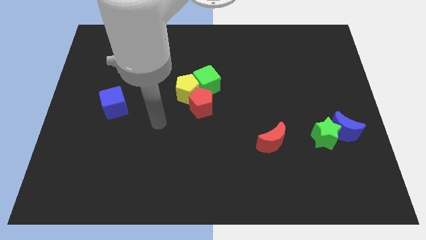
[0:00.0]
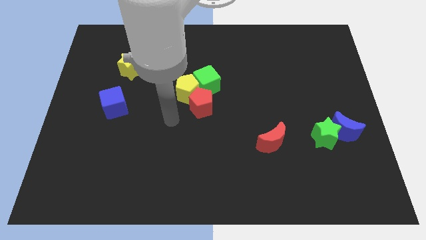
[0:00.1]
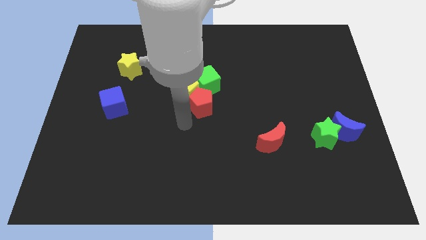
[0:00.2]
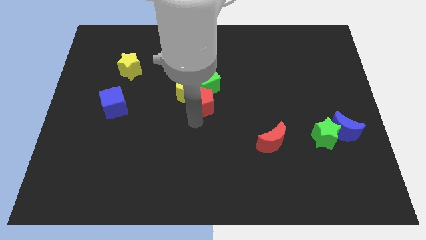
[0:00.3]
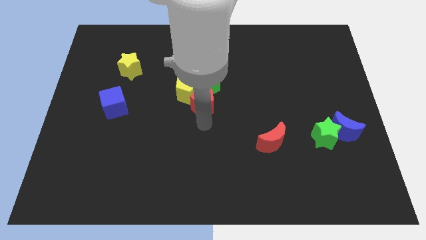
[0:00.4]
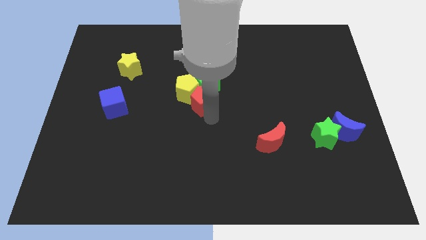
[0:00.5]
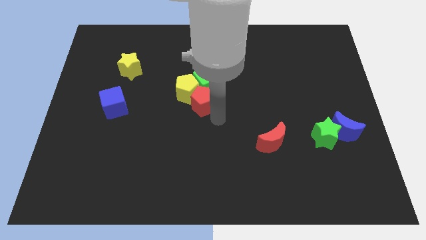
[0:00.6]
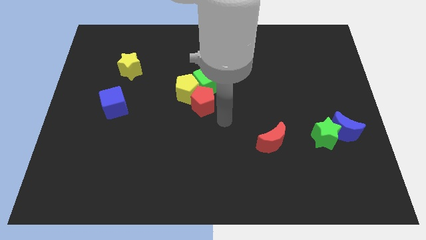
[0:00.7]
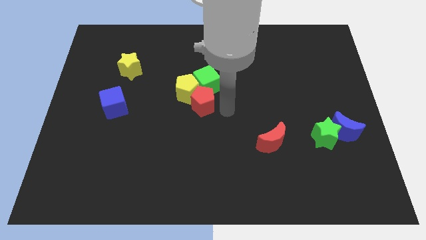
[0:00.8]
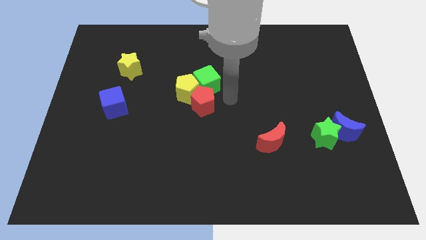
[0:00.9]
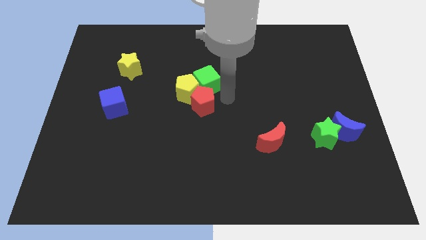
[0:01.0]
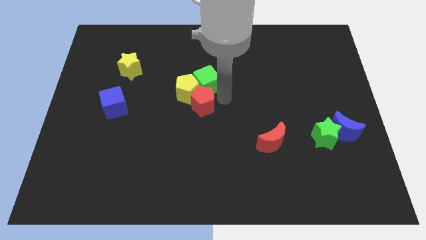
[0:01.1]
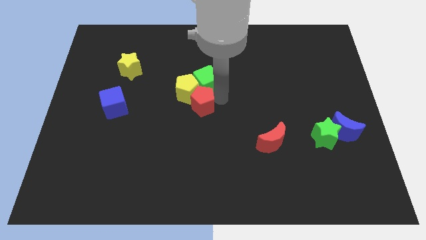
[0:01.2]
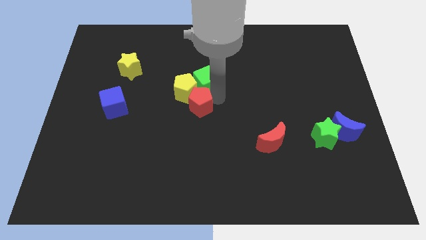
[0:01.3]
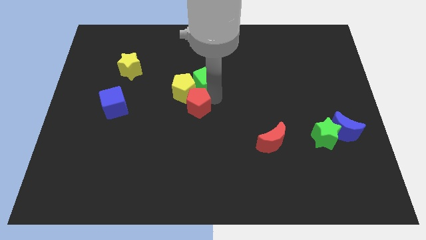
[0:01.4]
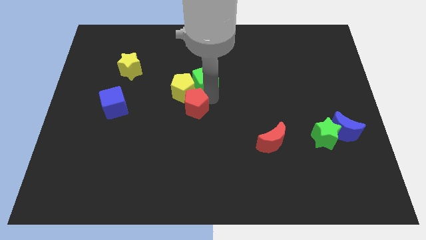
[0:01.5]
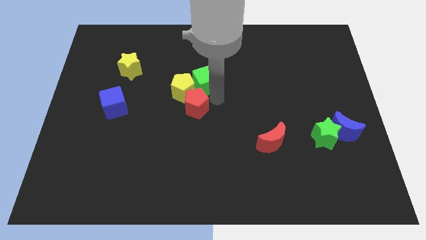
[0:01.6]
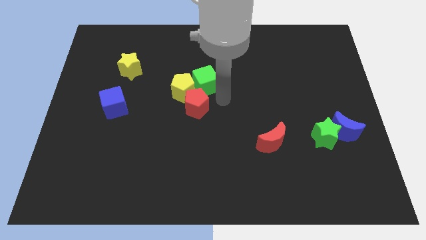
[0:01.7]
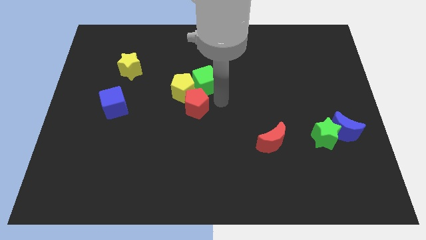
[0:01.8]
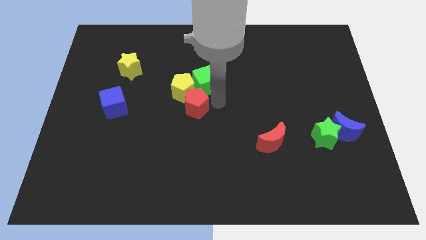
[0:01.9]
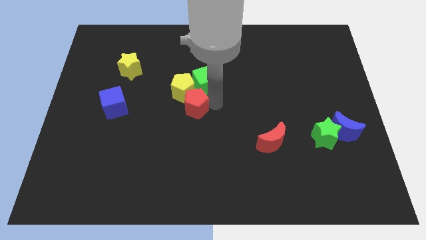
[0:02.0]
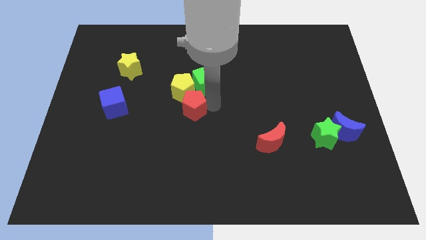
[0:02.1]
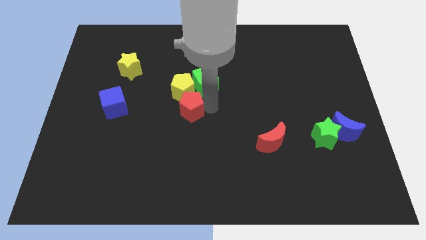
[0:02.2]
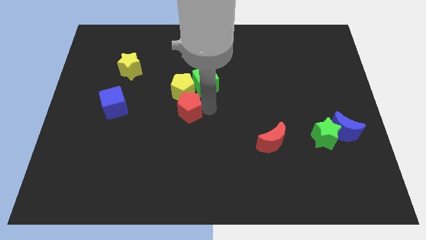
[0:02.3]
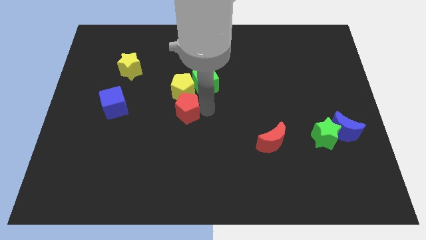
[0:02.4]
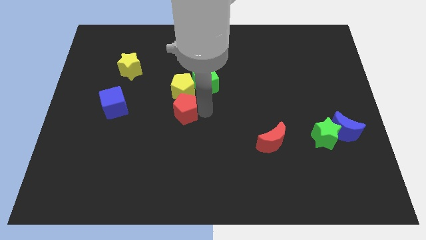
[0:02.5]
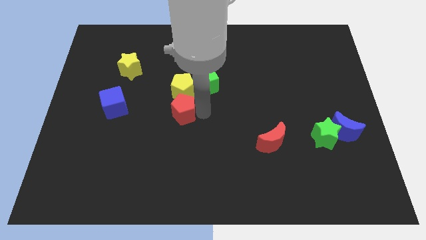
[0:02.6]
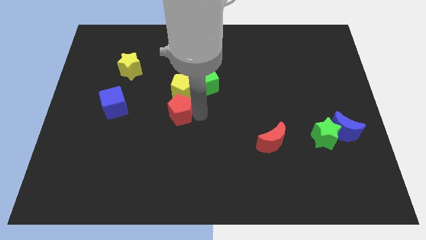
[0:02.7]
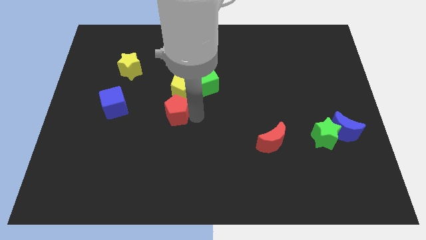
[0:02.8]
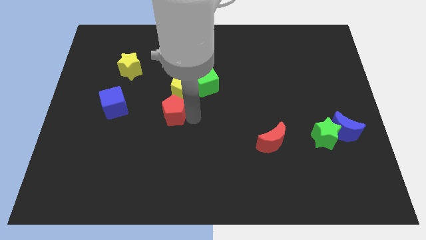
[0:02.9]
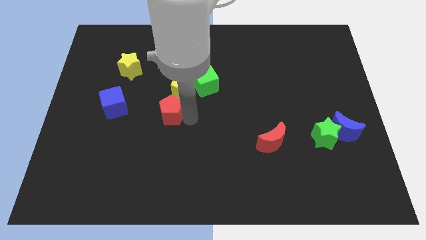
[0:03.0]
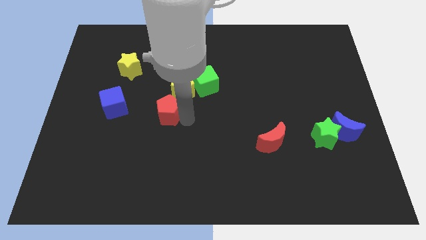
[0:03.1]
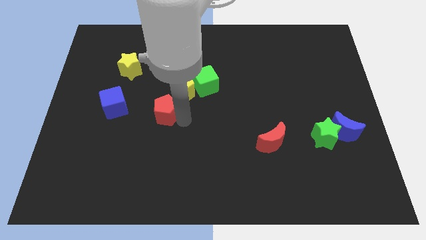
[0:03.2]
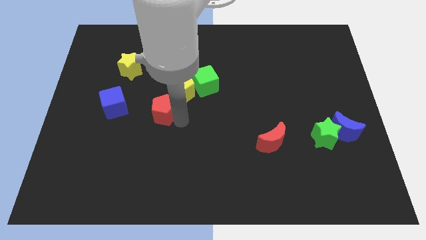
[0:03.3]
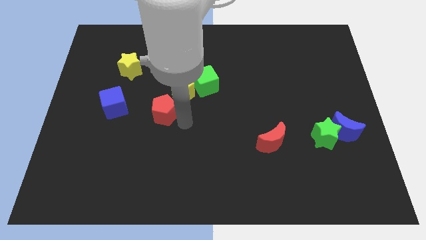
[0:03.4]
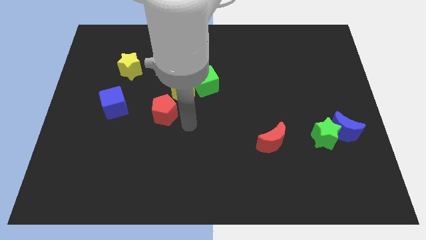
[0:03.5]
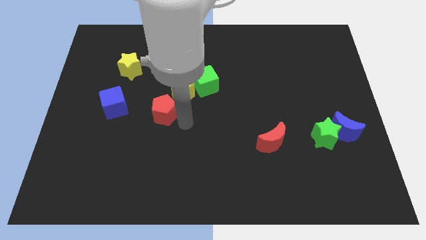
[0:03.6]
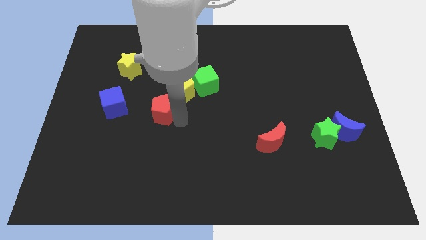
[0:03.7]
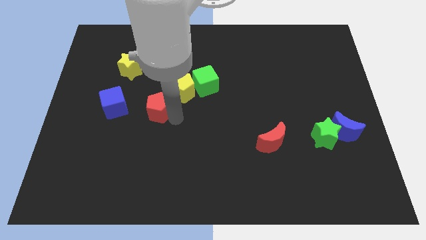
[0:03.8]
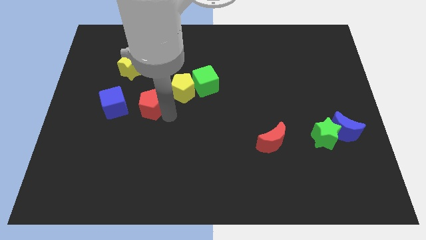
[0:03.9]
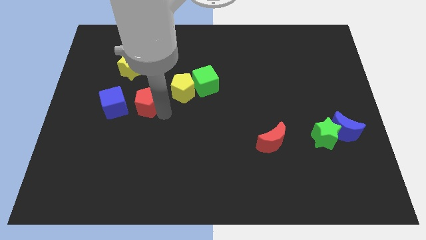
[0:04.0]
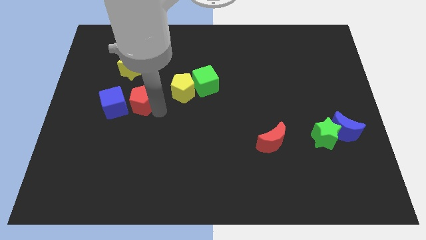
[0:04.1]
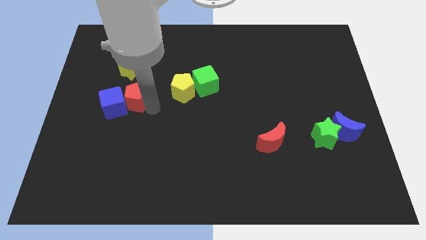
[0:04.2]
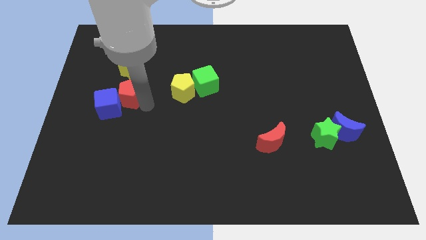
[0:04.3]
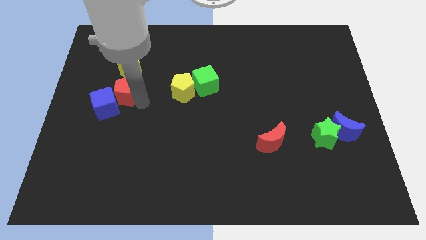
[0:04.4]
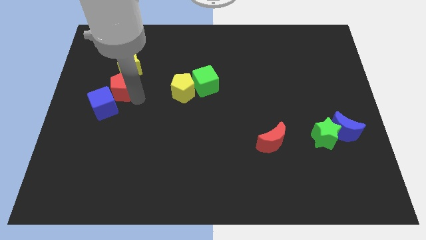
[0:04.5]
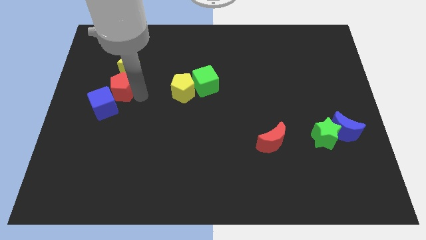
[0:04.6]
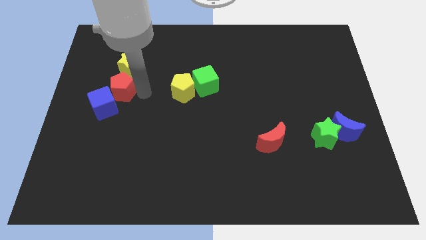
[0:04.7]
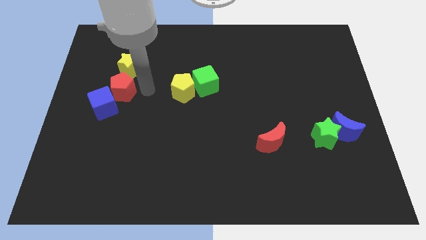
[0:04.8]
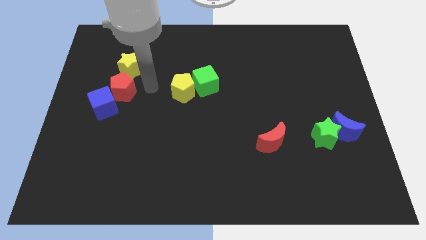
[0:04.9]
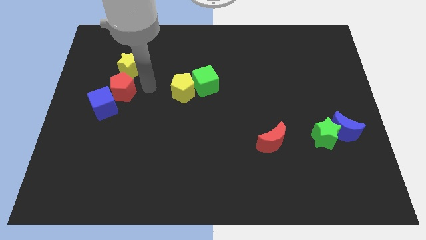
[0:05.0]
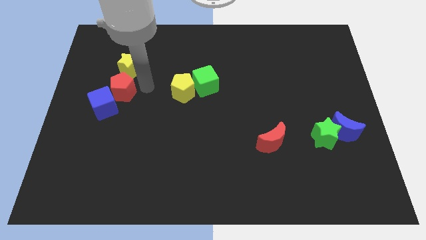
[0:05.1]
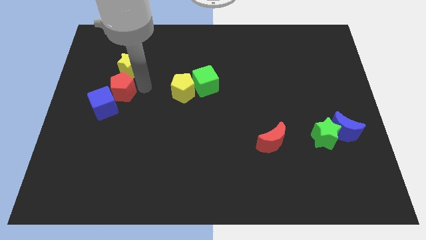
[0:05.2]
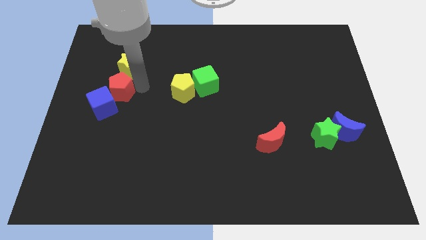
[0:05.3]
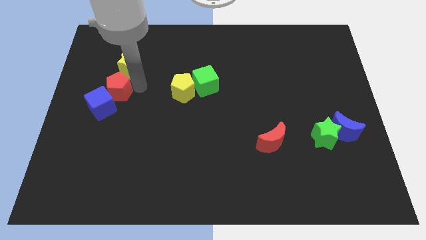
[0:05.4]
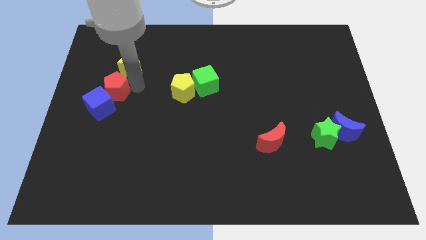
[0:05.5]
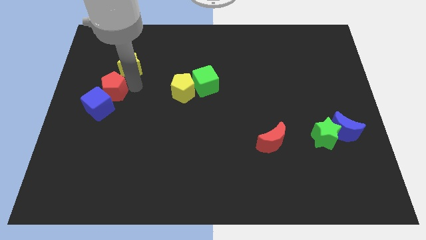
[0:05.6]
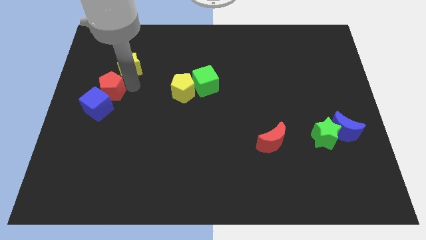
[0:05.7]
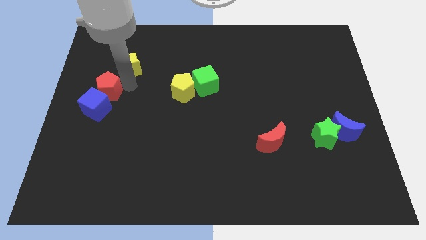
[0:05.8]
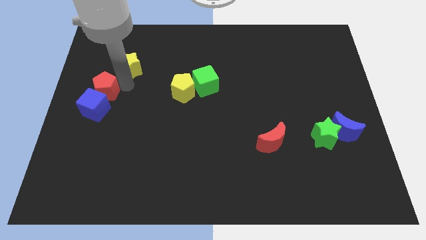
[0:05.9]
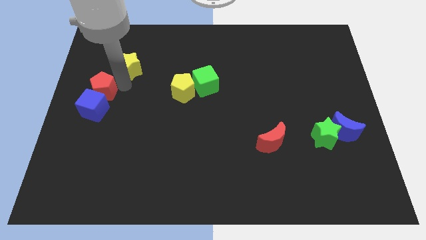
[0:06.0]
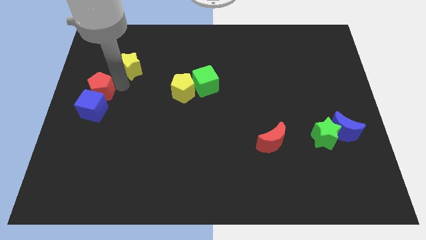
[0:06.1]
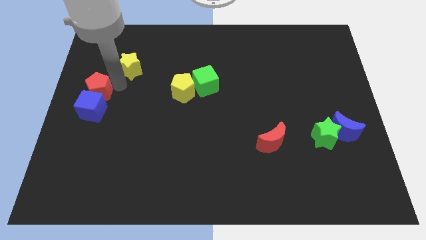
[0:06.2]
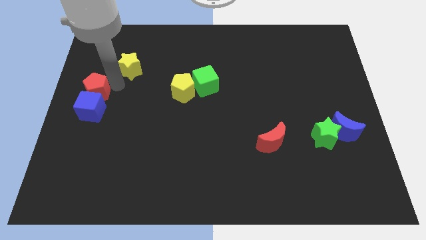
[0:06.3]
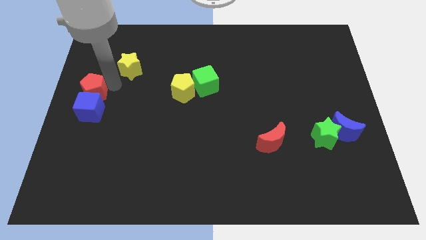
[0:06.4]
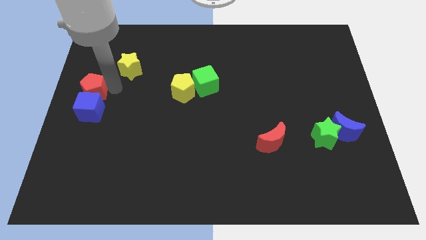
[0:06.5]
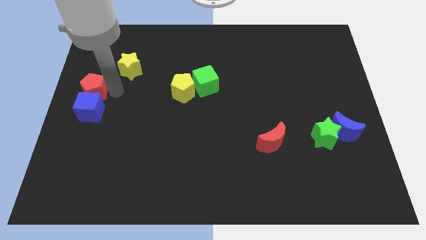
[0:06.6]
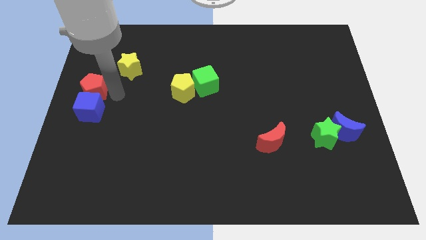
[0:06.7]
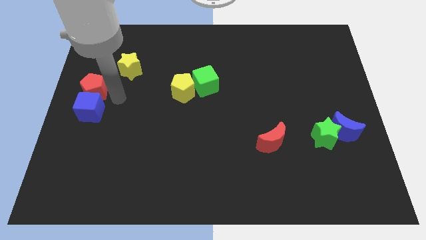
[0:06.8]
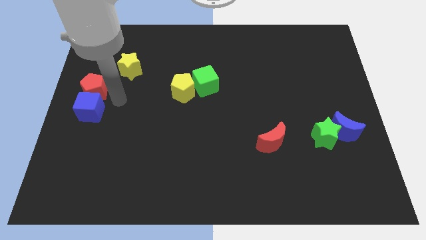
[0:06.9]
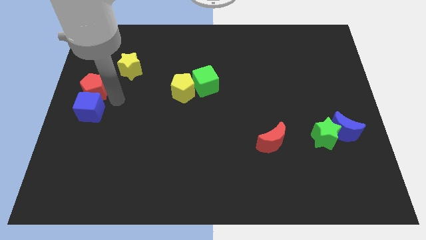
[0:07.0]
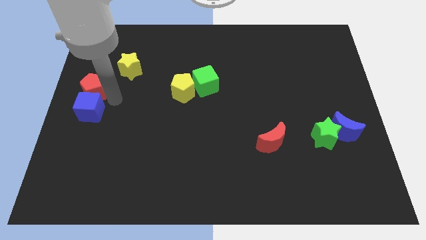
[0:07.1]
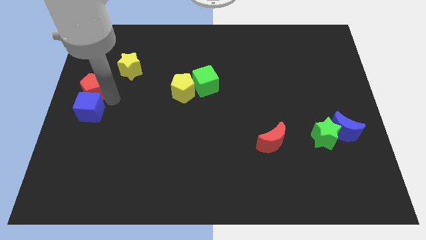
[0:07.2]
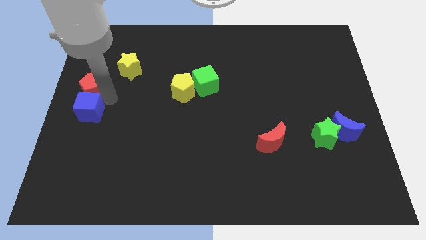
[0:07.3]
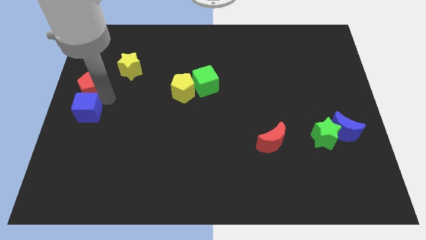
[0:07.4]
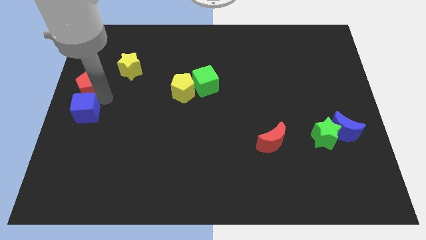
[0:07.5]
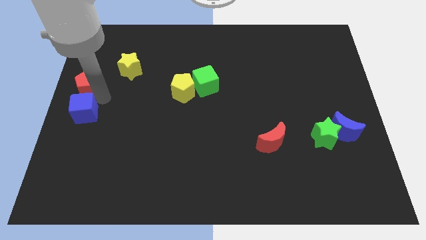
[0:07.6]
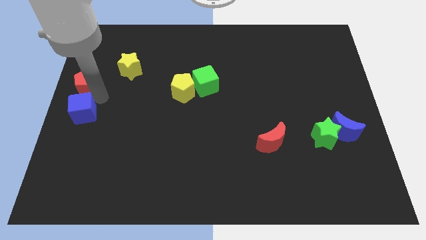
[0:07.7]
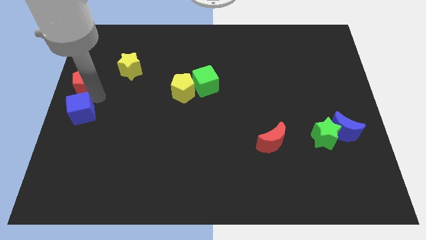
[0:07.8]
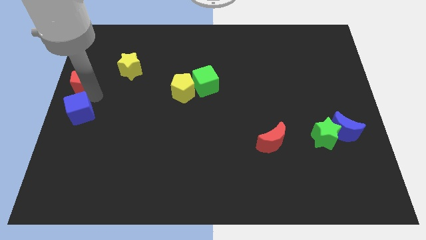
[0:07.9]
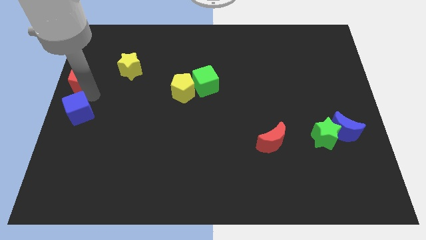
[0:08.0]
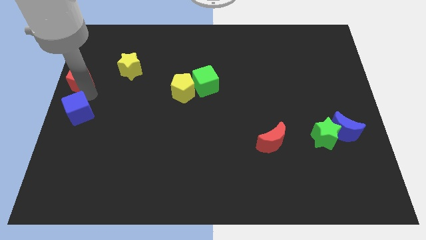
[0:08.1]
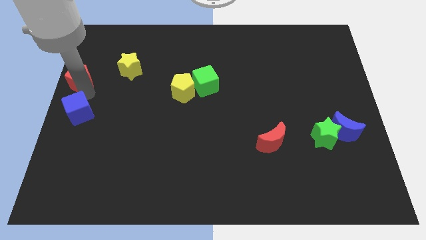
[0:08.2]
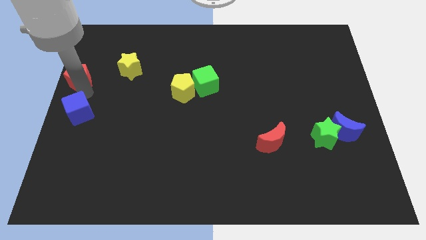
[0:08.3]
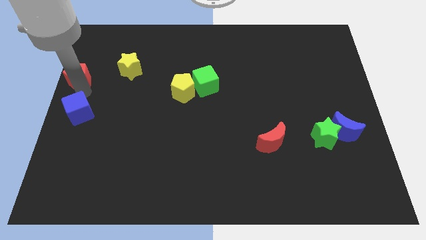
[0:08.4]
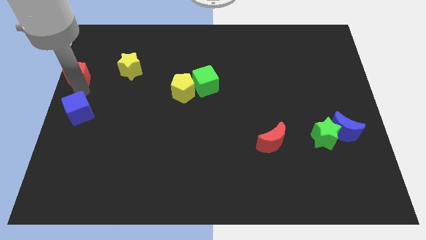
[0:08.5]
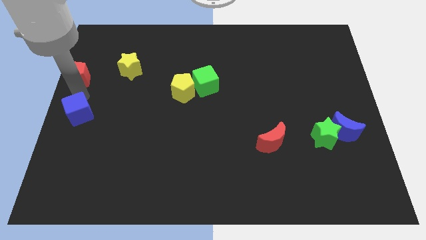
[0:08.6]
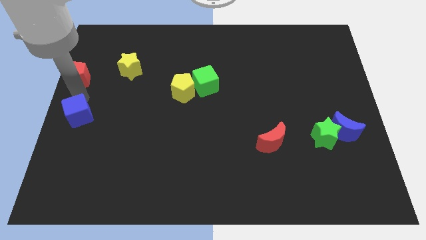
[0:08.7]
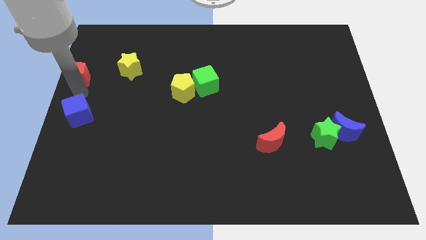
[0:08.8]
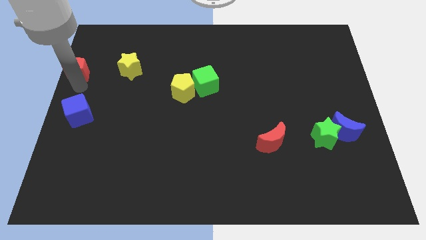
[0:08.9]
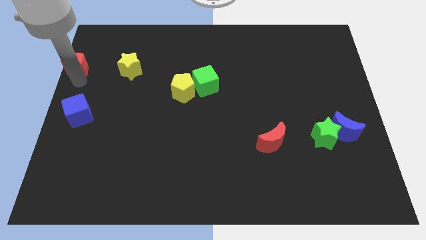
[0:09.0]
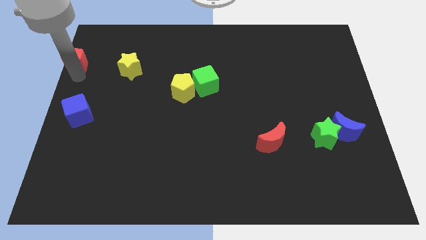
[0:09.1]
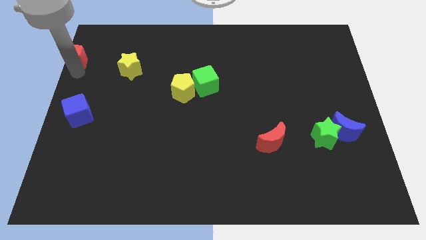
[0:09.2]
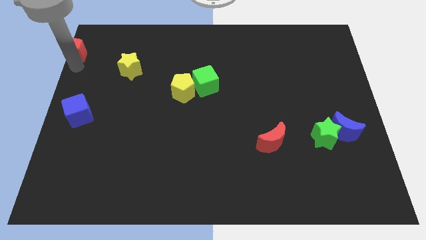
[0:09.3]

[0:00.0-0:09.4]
put the red pentagon to the top left
